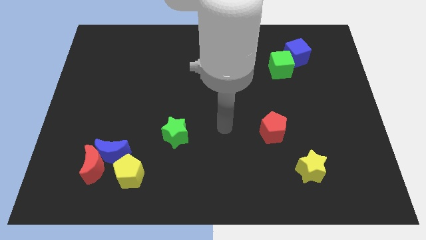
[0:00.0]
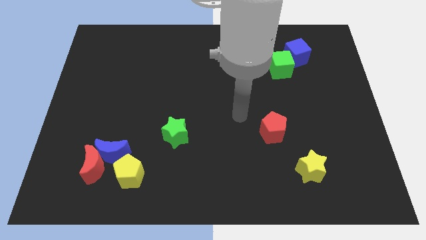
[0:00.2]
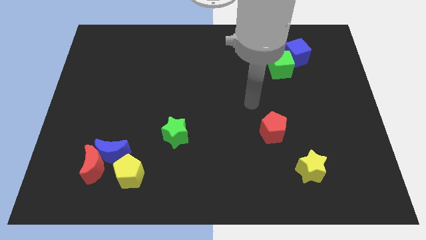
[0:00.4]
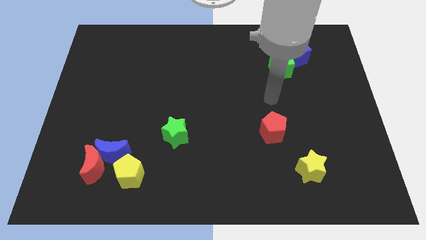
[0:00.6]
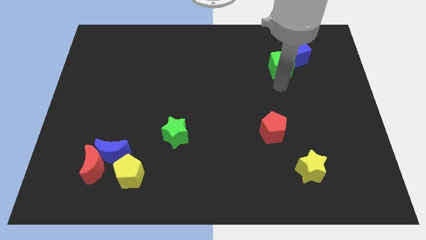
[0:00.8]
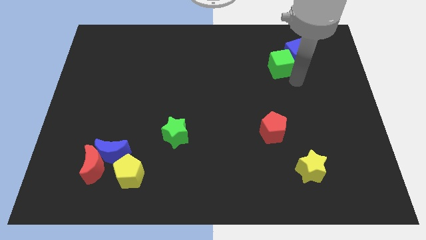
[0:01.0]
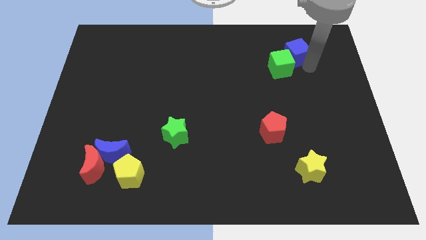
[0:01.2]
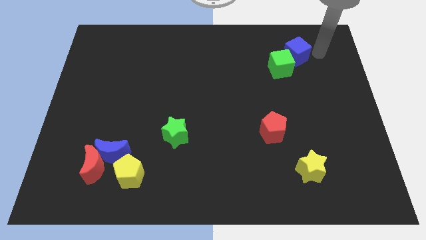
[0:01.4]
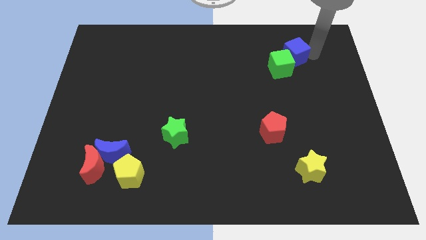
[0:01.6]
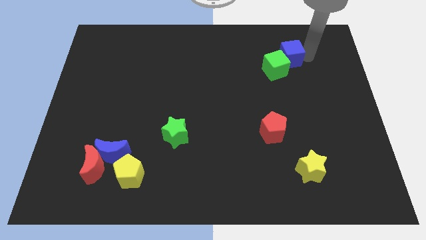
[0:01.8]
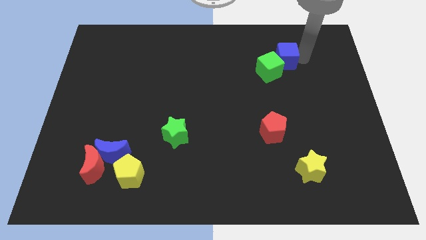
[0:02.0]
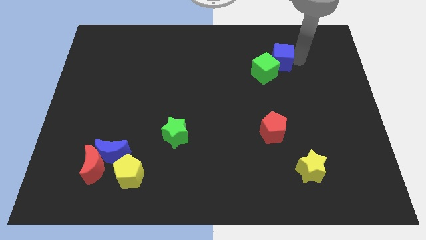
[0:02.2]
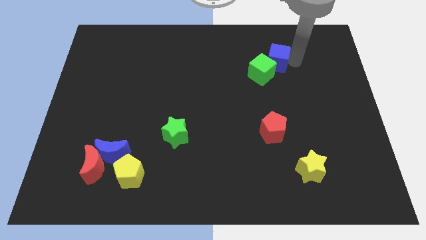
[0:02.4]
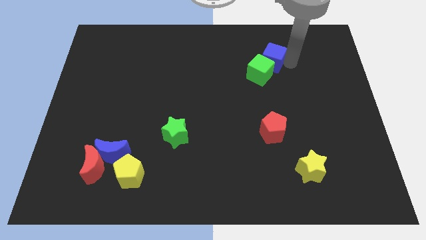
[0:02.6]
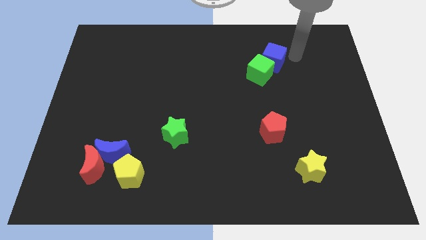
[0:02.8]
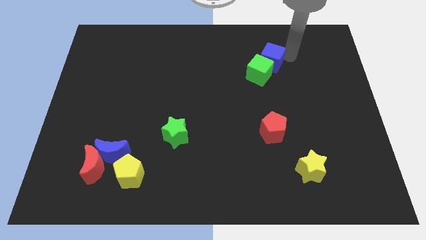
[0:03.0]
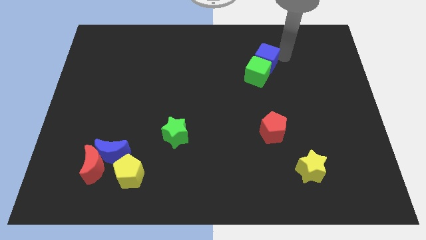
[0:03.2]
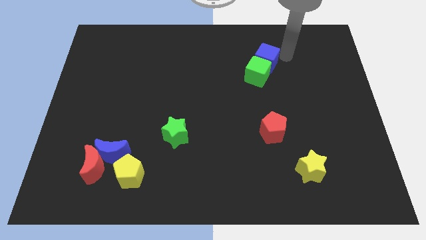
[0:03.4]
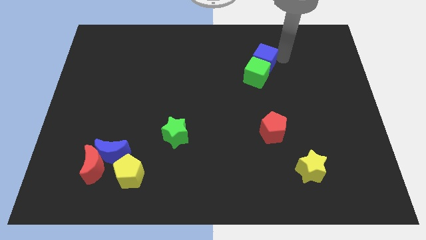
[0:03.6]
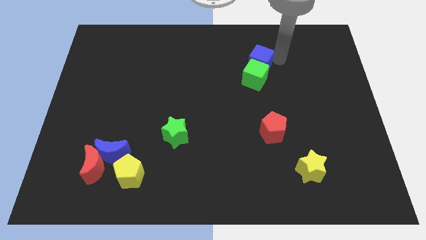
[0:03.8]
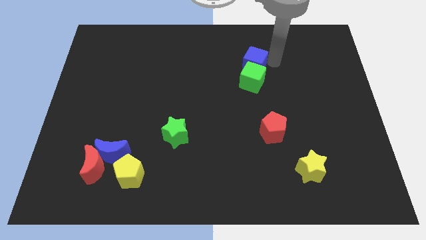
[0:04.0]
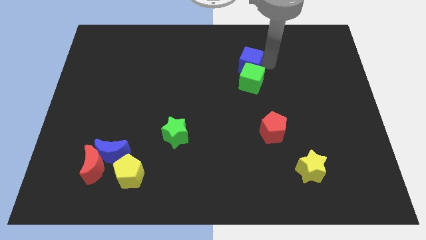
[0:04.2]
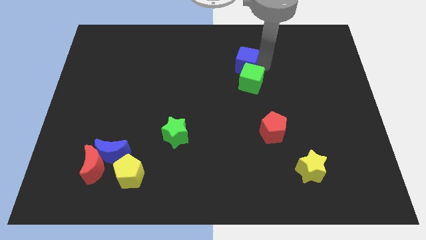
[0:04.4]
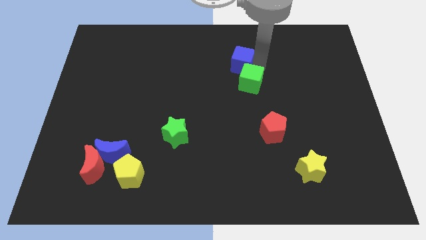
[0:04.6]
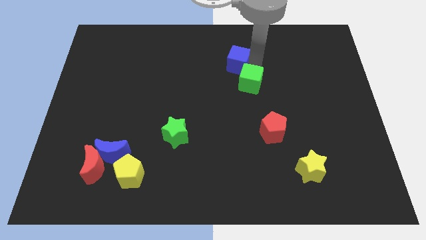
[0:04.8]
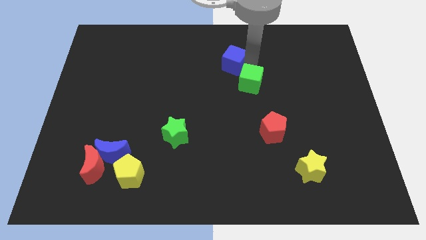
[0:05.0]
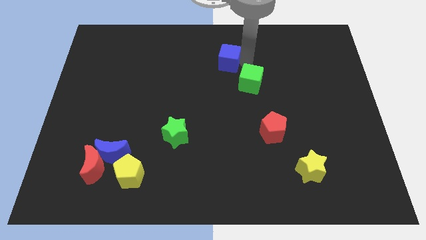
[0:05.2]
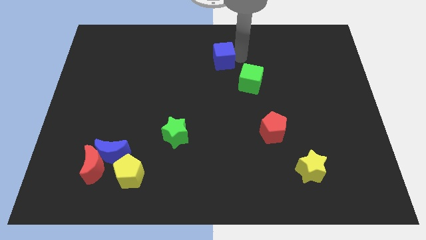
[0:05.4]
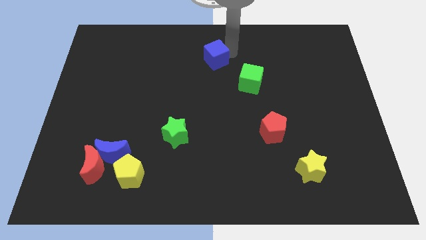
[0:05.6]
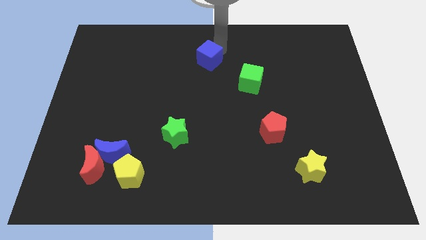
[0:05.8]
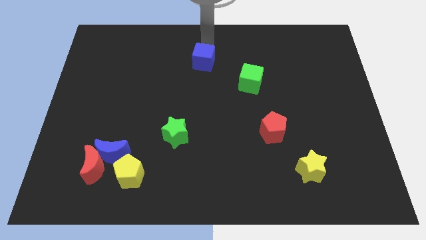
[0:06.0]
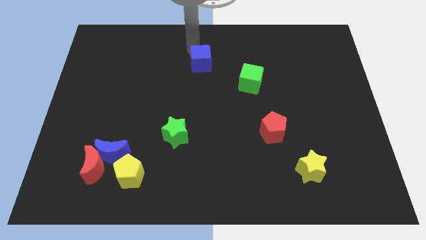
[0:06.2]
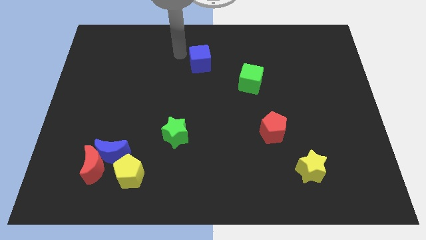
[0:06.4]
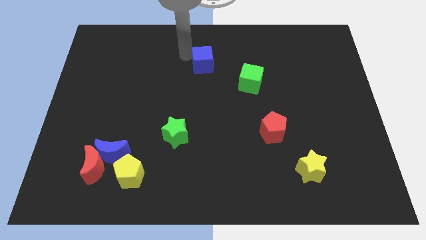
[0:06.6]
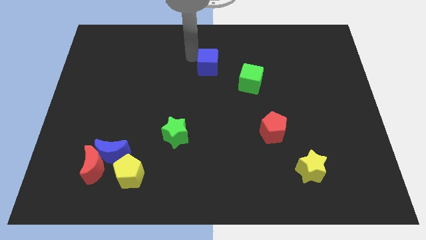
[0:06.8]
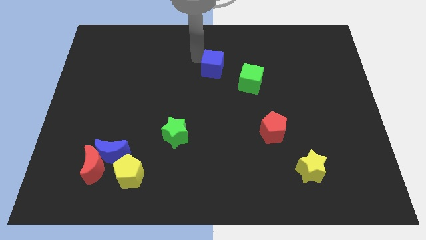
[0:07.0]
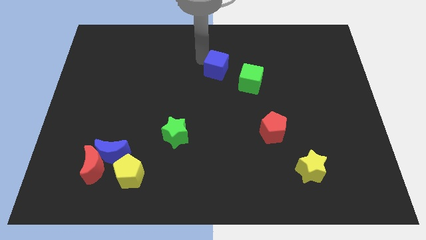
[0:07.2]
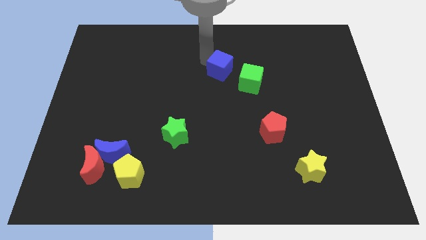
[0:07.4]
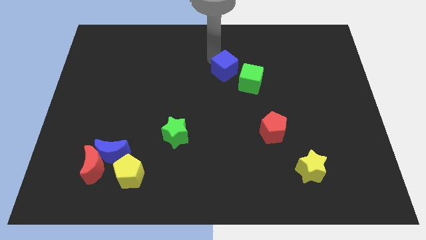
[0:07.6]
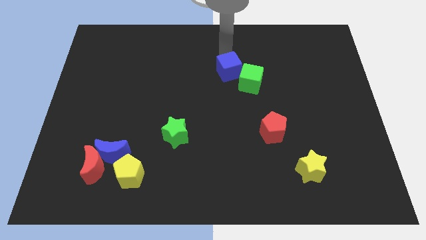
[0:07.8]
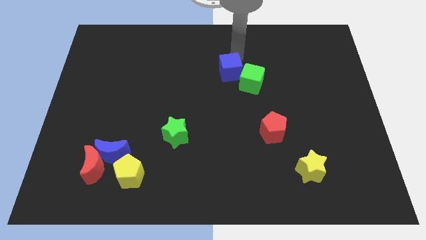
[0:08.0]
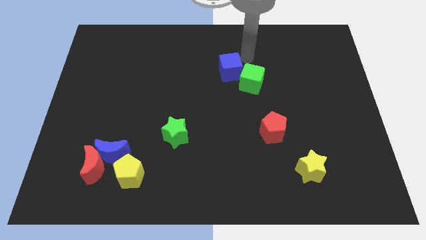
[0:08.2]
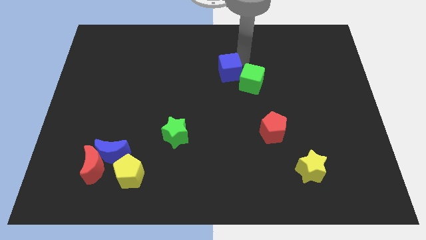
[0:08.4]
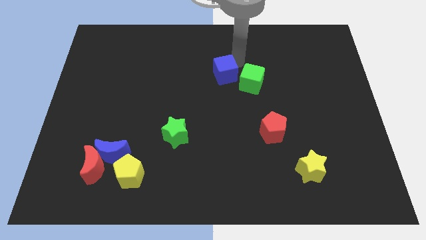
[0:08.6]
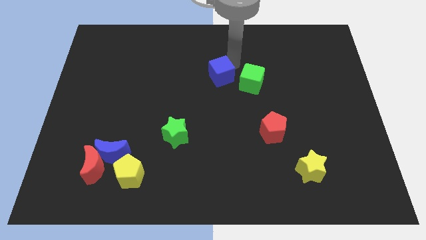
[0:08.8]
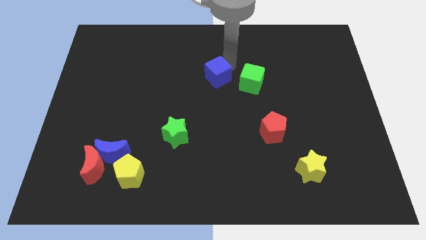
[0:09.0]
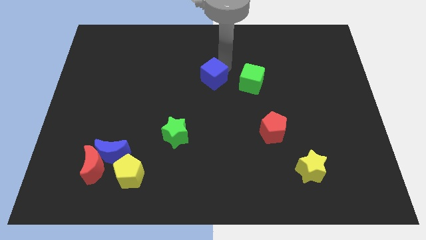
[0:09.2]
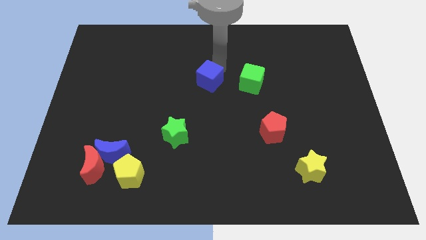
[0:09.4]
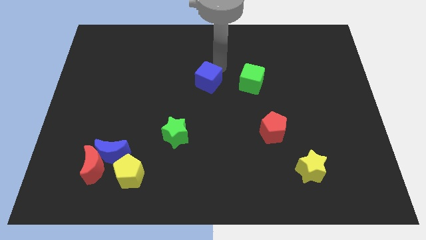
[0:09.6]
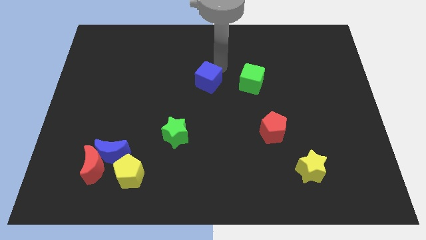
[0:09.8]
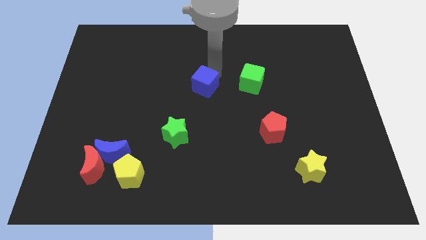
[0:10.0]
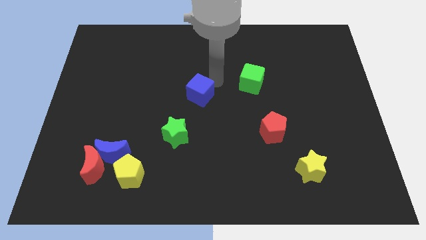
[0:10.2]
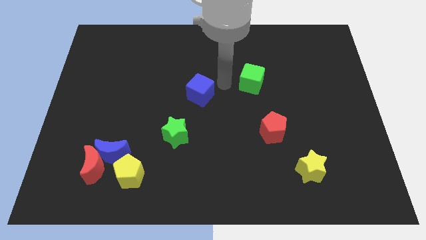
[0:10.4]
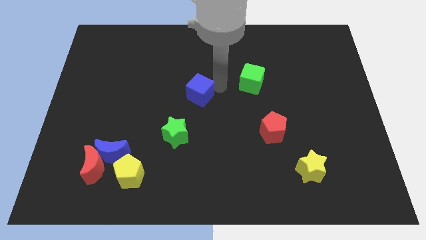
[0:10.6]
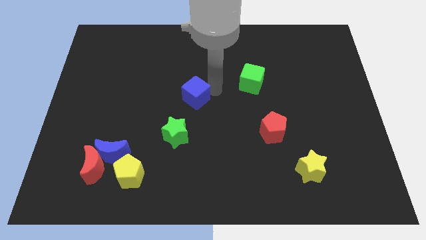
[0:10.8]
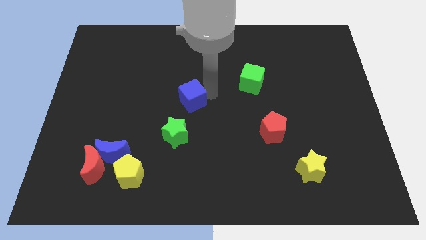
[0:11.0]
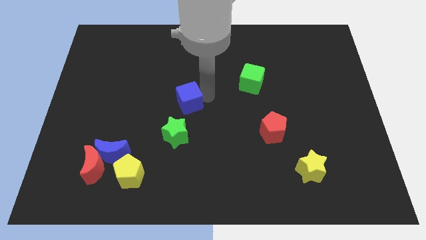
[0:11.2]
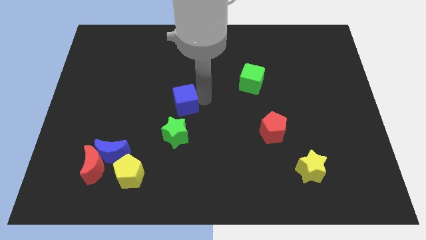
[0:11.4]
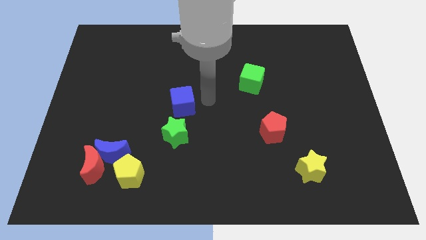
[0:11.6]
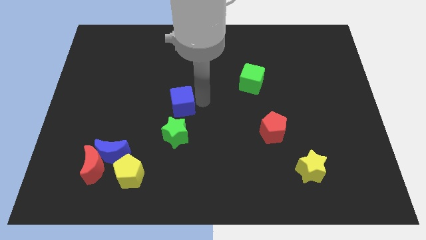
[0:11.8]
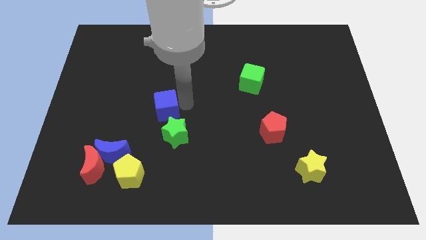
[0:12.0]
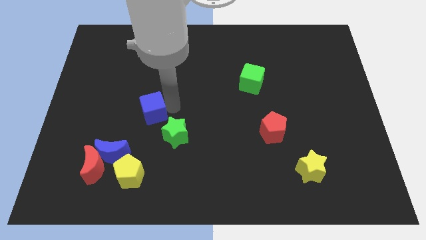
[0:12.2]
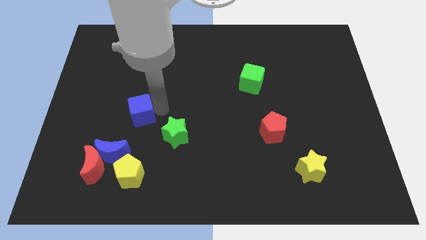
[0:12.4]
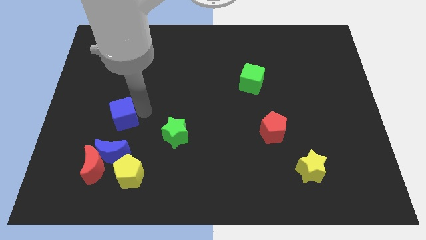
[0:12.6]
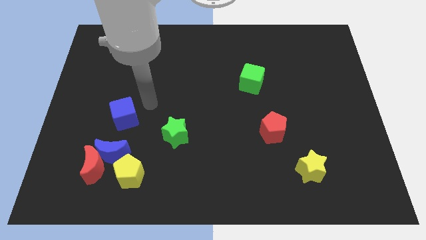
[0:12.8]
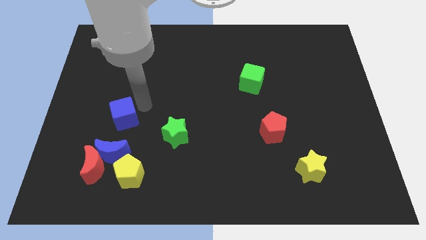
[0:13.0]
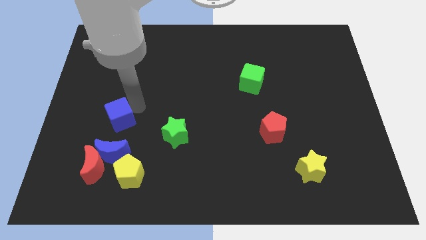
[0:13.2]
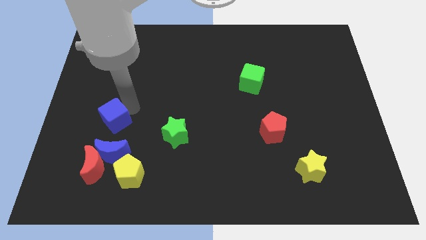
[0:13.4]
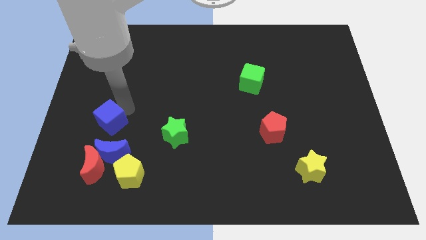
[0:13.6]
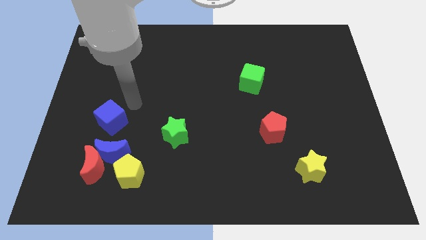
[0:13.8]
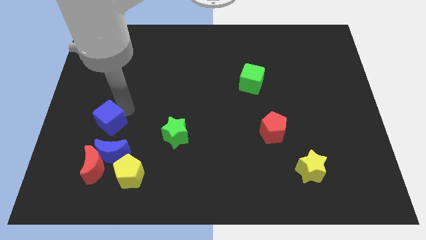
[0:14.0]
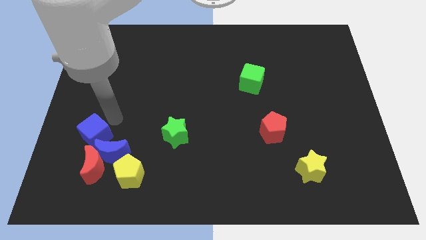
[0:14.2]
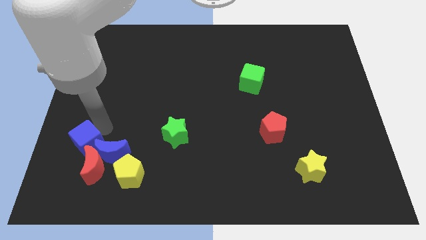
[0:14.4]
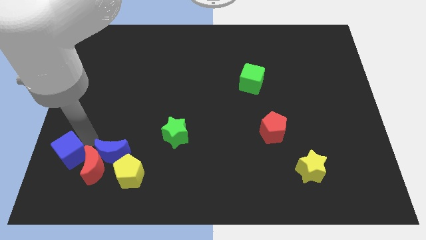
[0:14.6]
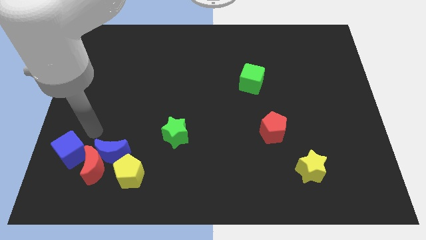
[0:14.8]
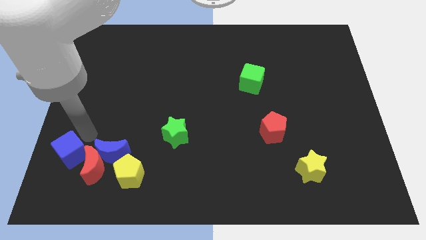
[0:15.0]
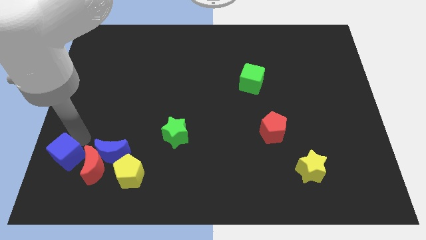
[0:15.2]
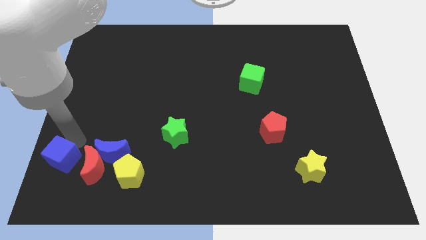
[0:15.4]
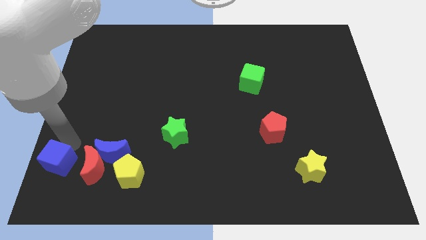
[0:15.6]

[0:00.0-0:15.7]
put the blue cube to the bottom left of the board
